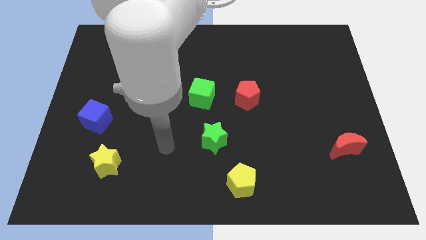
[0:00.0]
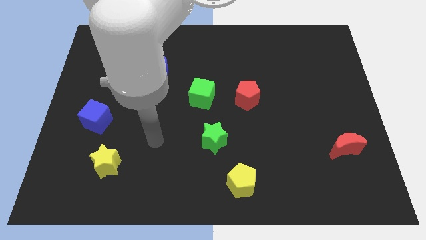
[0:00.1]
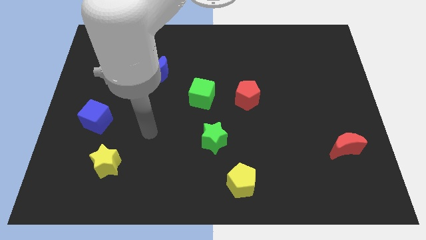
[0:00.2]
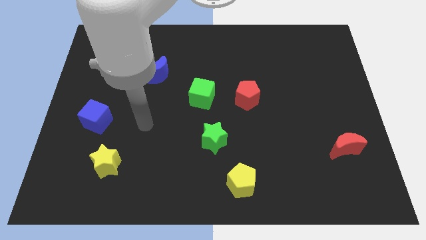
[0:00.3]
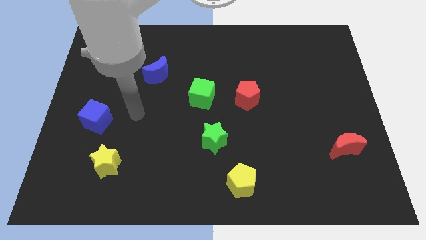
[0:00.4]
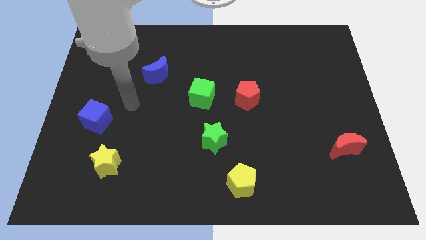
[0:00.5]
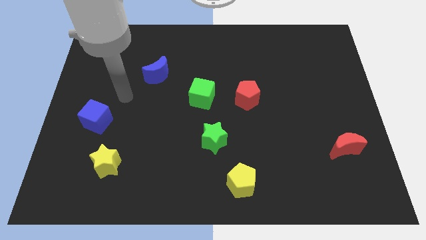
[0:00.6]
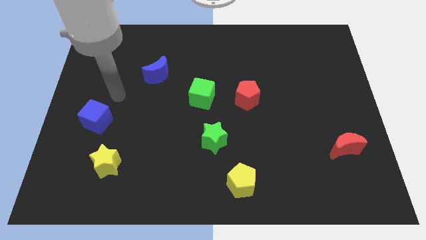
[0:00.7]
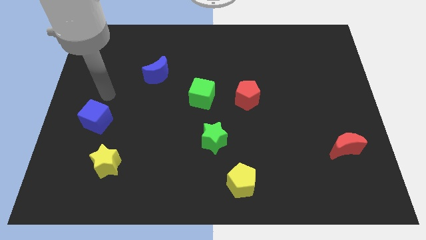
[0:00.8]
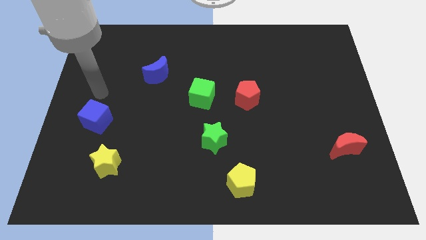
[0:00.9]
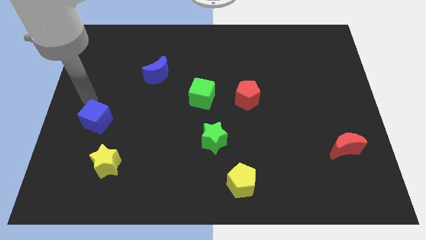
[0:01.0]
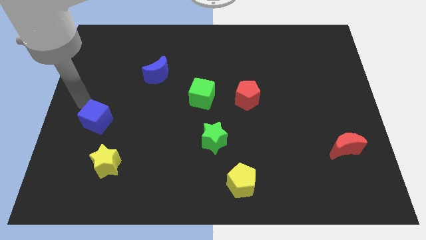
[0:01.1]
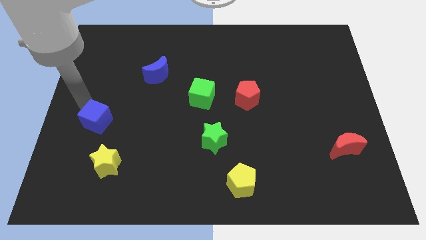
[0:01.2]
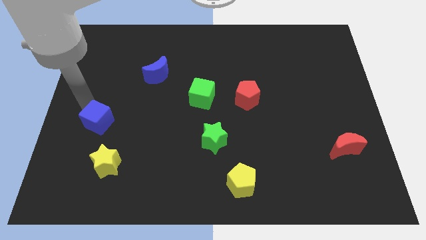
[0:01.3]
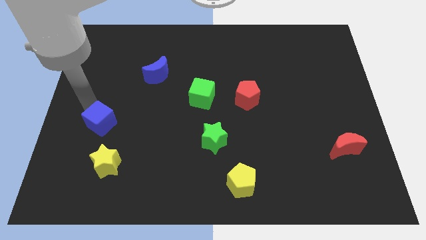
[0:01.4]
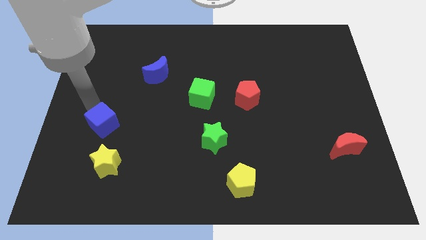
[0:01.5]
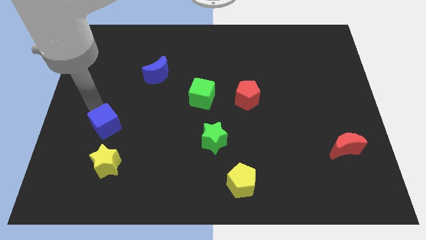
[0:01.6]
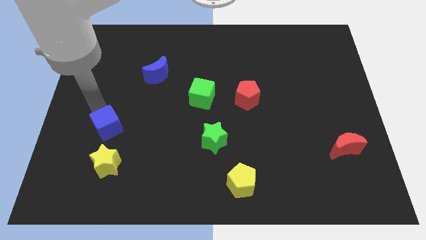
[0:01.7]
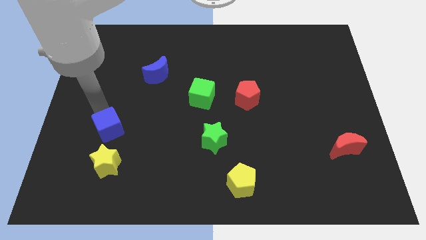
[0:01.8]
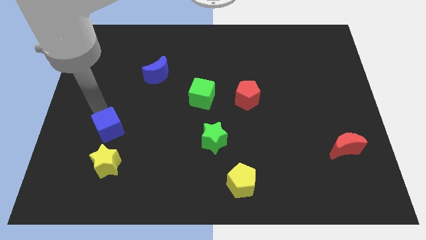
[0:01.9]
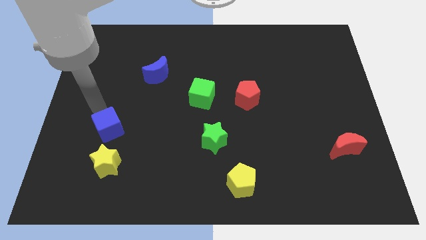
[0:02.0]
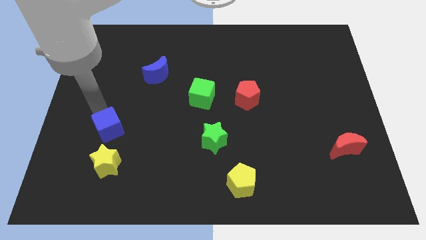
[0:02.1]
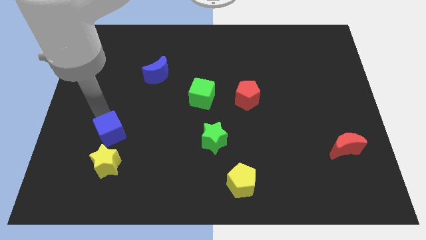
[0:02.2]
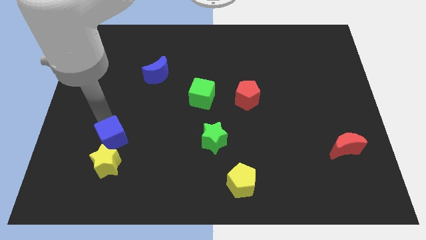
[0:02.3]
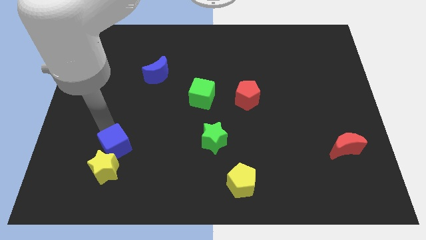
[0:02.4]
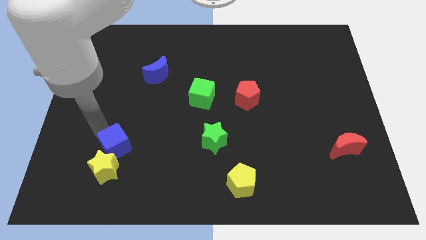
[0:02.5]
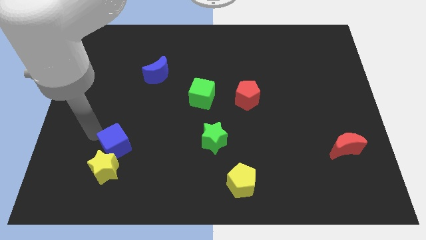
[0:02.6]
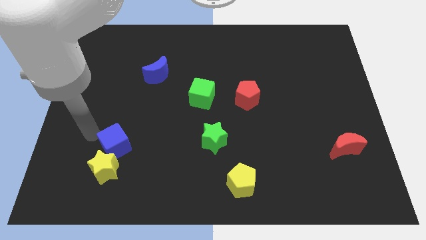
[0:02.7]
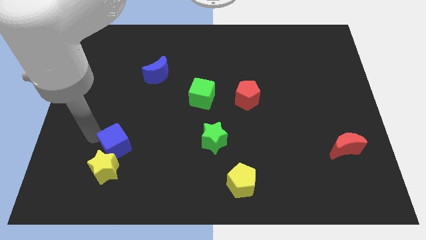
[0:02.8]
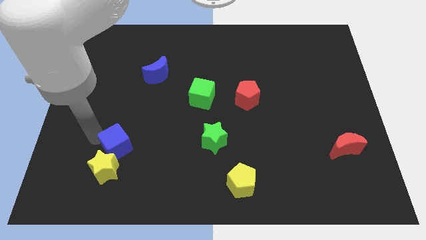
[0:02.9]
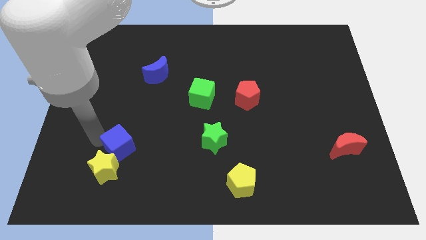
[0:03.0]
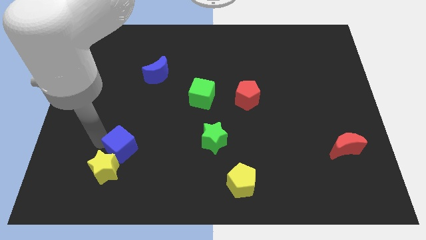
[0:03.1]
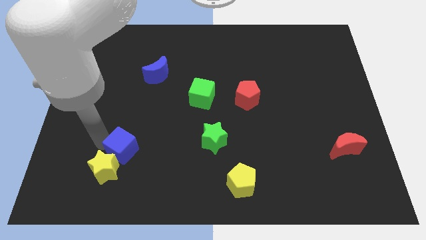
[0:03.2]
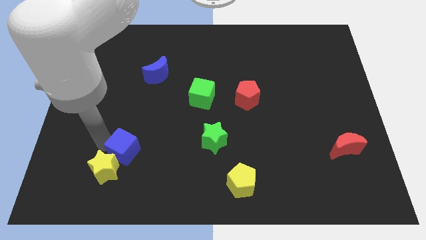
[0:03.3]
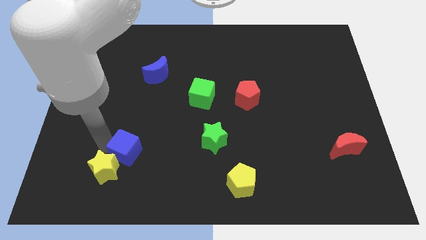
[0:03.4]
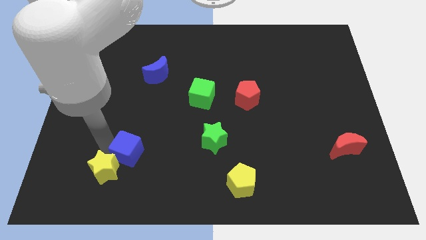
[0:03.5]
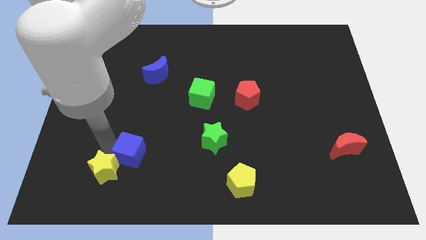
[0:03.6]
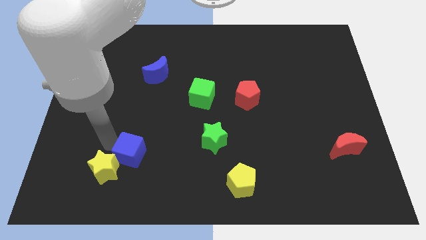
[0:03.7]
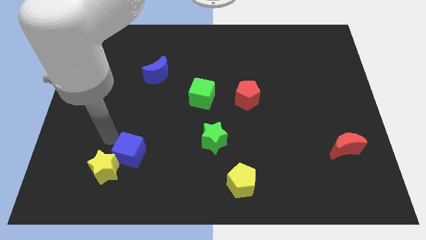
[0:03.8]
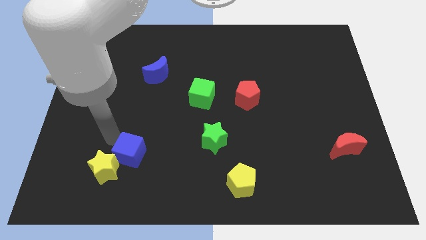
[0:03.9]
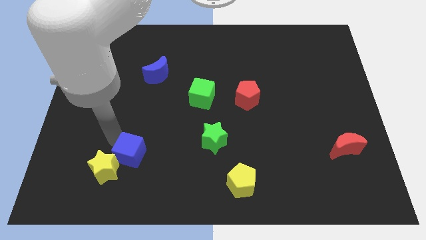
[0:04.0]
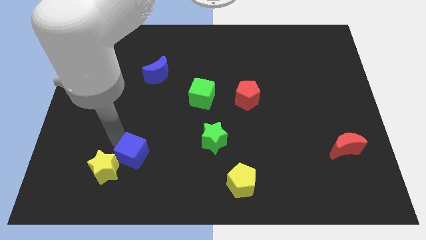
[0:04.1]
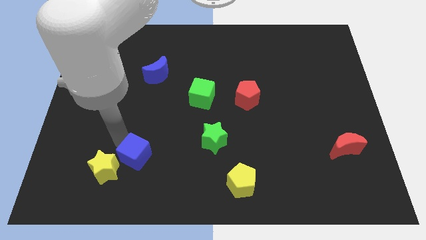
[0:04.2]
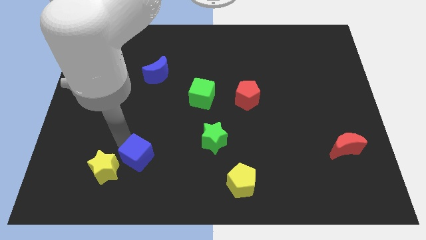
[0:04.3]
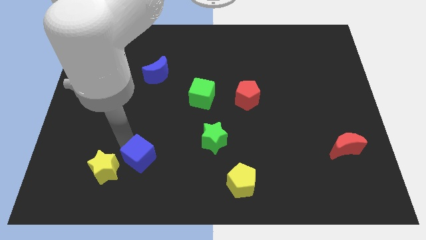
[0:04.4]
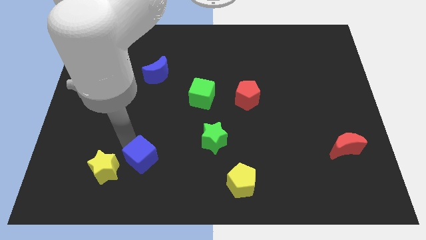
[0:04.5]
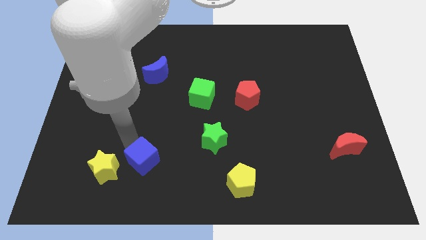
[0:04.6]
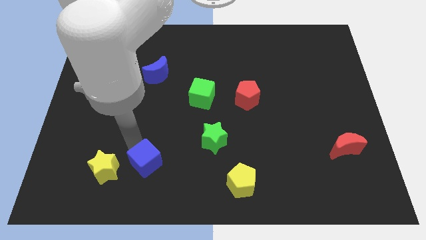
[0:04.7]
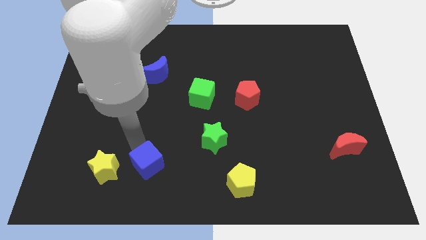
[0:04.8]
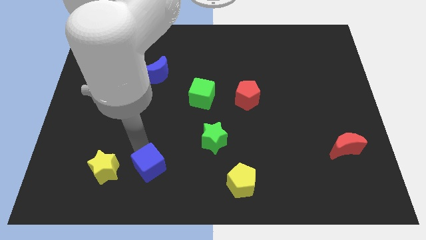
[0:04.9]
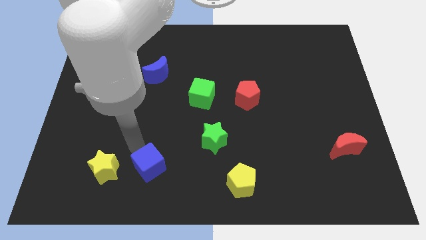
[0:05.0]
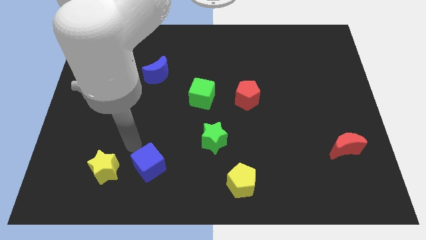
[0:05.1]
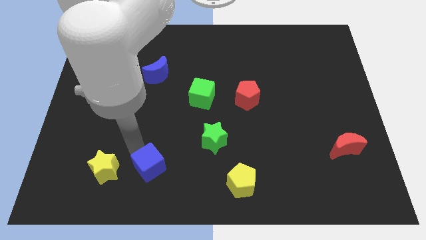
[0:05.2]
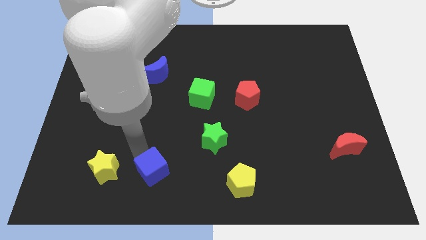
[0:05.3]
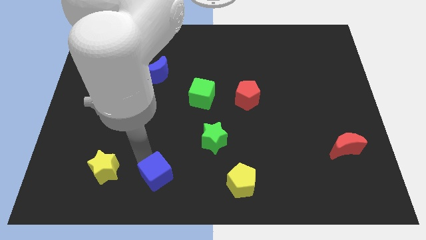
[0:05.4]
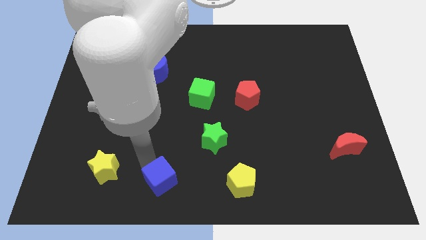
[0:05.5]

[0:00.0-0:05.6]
move the blue cube to the bottom side
